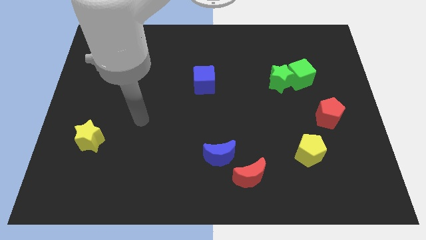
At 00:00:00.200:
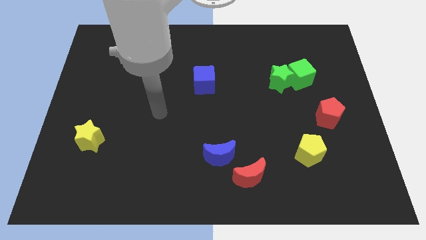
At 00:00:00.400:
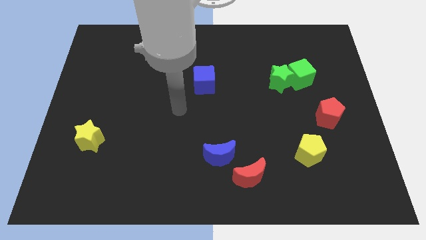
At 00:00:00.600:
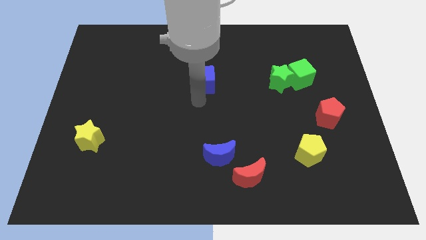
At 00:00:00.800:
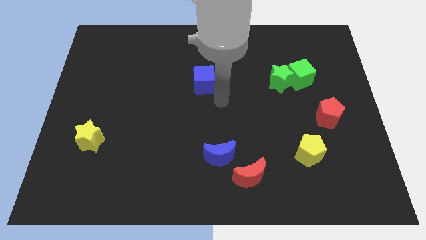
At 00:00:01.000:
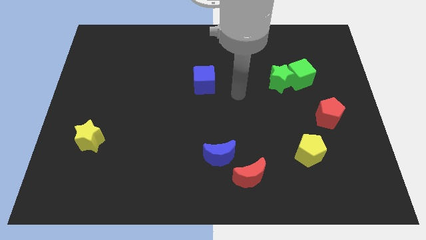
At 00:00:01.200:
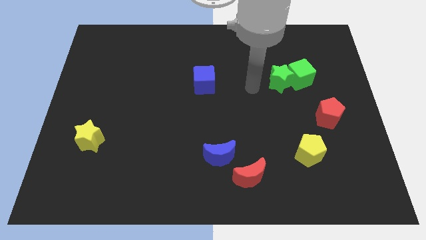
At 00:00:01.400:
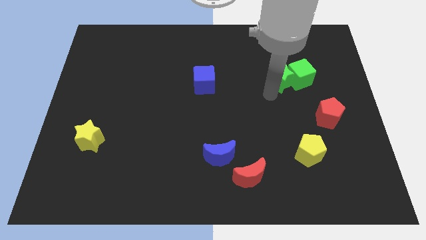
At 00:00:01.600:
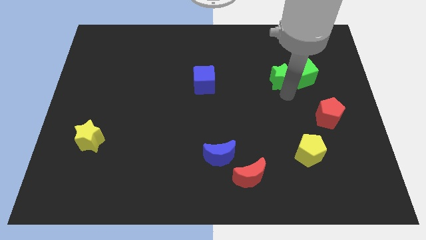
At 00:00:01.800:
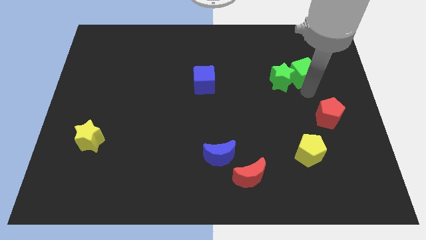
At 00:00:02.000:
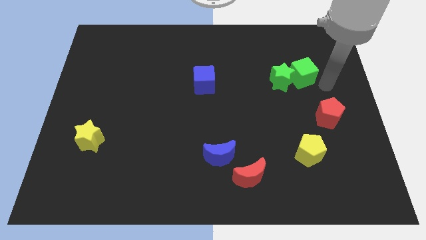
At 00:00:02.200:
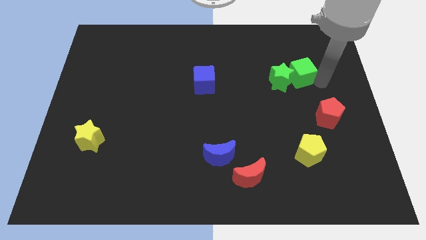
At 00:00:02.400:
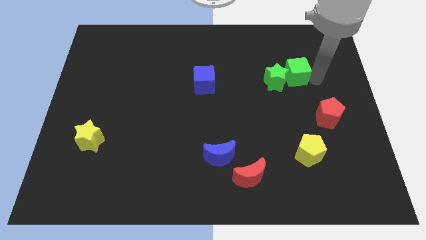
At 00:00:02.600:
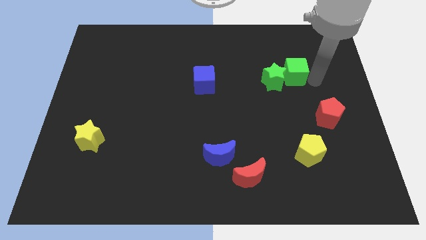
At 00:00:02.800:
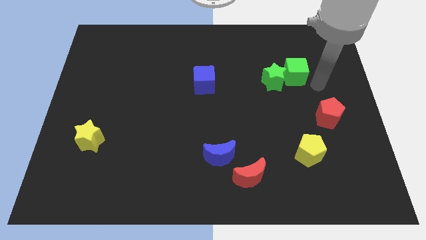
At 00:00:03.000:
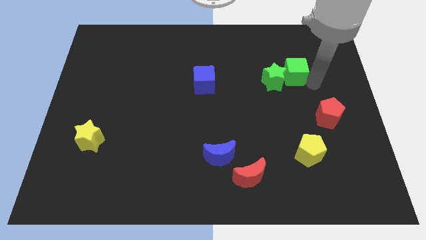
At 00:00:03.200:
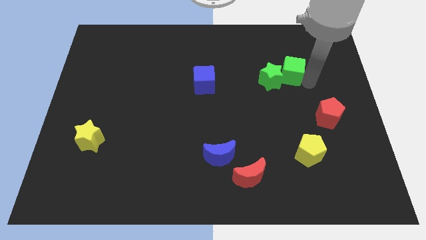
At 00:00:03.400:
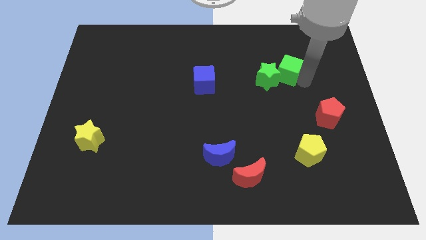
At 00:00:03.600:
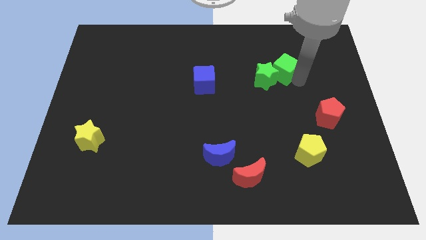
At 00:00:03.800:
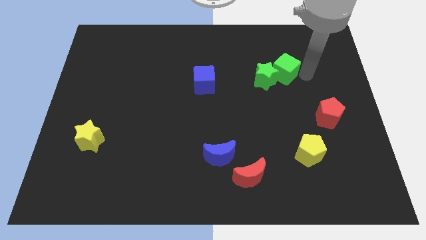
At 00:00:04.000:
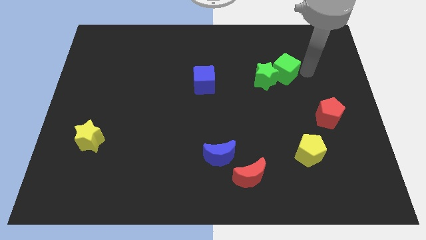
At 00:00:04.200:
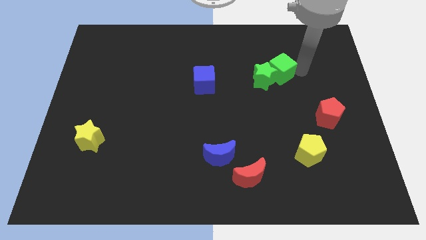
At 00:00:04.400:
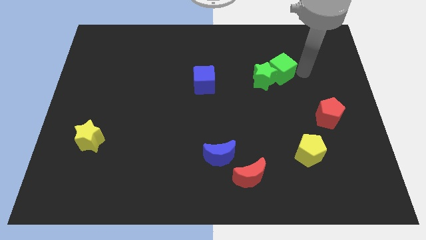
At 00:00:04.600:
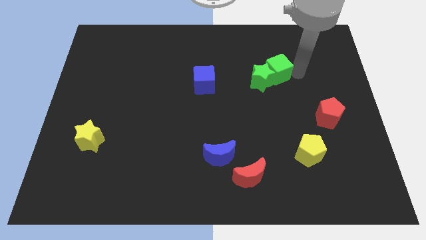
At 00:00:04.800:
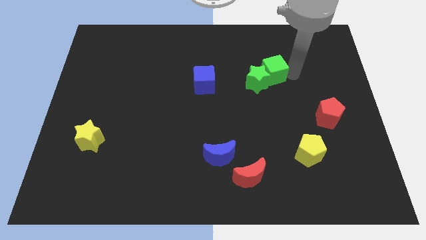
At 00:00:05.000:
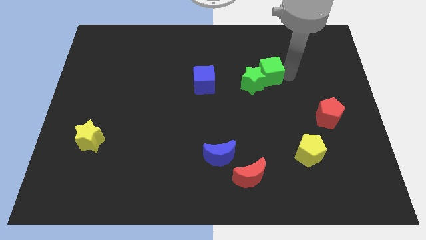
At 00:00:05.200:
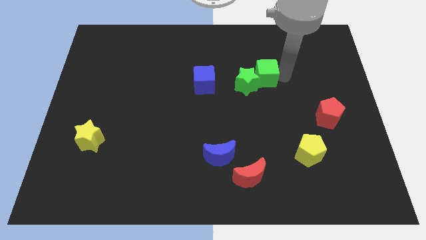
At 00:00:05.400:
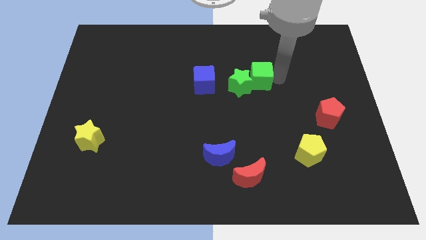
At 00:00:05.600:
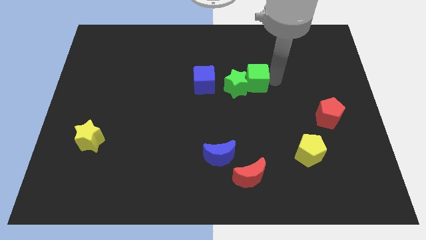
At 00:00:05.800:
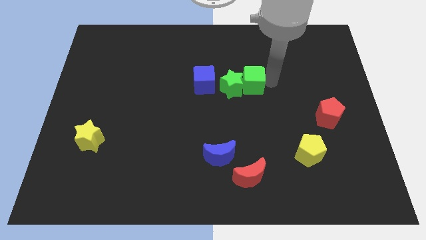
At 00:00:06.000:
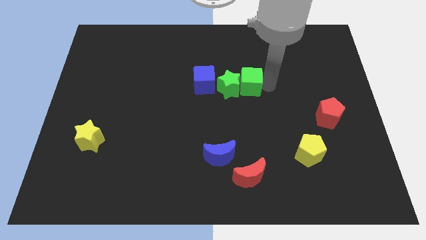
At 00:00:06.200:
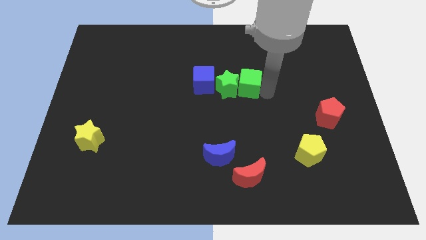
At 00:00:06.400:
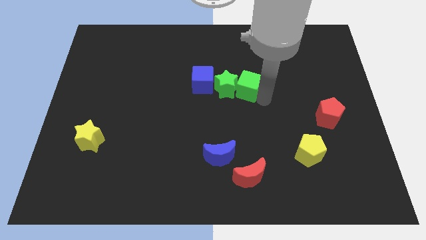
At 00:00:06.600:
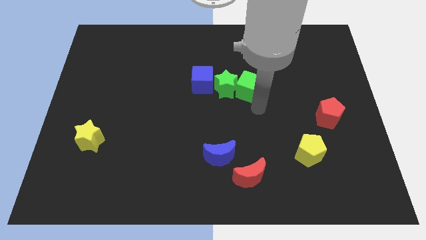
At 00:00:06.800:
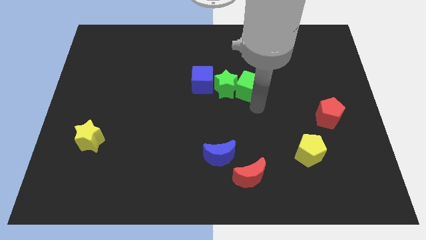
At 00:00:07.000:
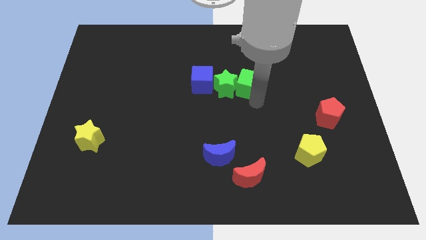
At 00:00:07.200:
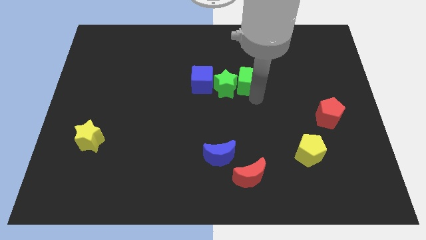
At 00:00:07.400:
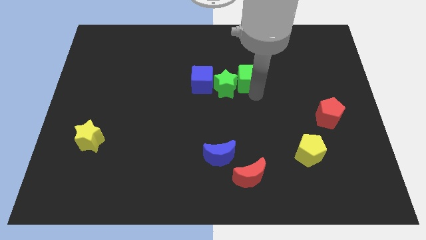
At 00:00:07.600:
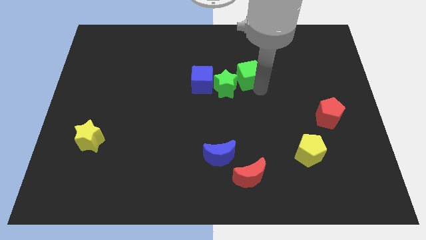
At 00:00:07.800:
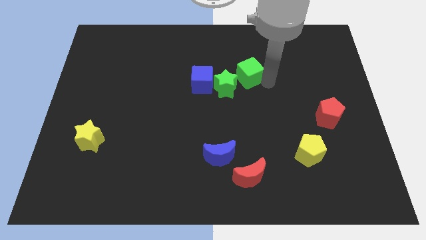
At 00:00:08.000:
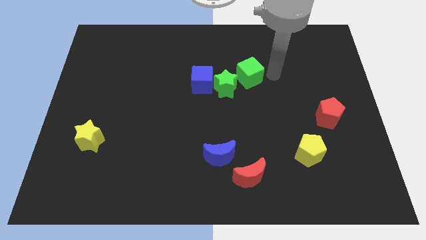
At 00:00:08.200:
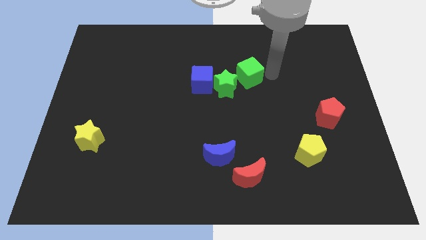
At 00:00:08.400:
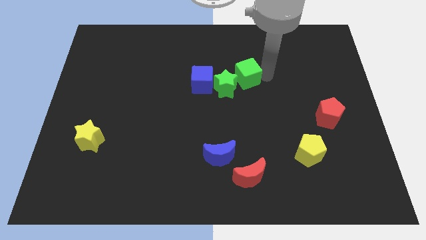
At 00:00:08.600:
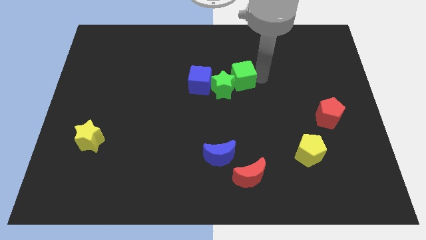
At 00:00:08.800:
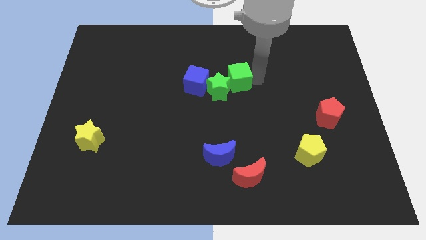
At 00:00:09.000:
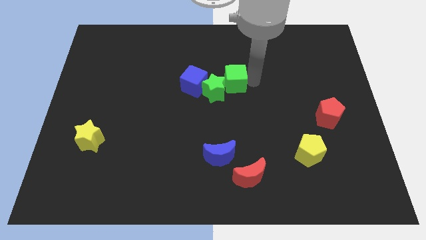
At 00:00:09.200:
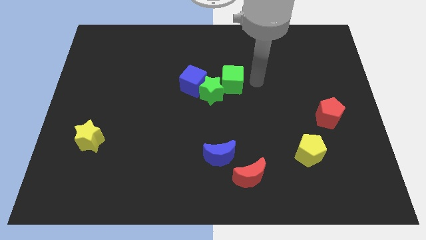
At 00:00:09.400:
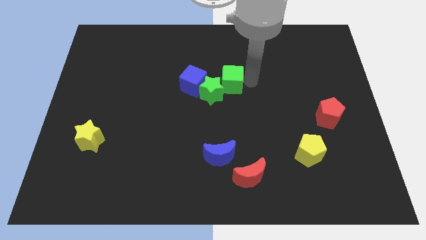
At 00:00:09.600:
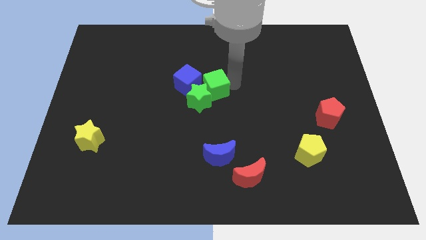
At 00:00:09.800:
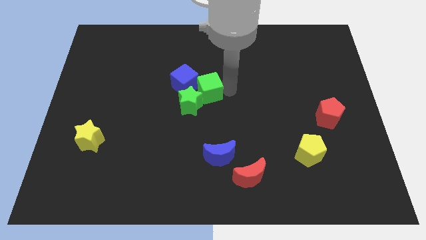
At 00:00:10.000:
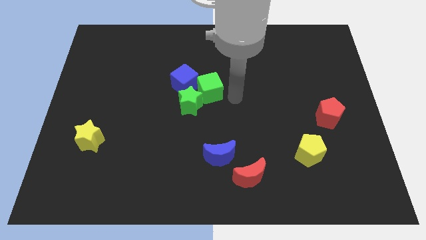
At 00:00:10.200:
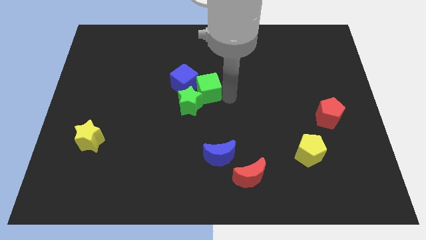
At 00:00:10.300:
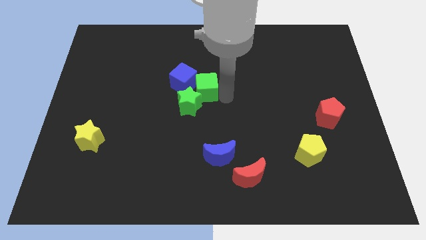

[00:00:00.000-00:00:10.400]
put the green cube next to the blue cube
